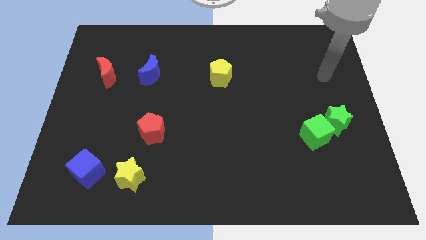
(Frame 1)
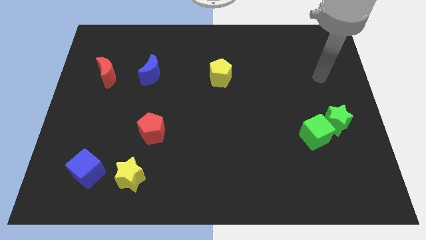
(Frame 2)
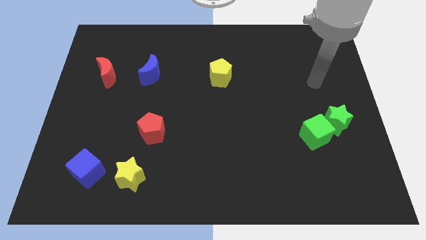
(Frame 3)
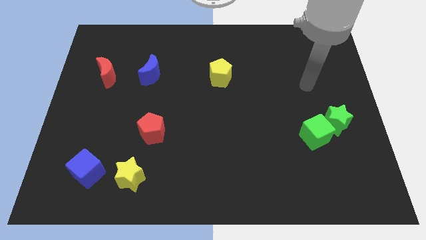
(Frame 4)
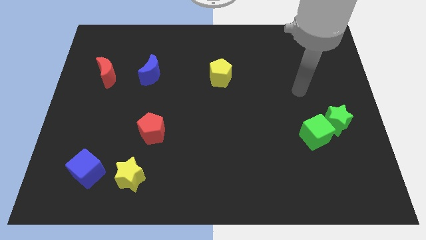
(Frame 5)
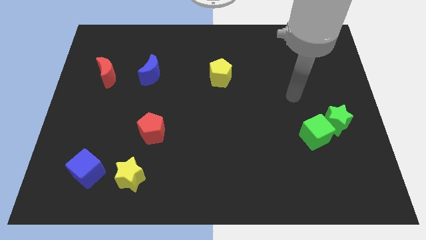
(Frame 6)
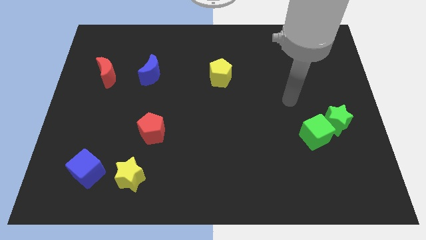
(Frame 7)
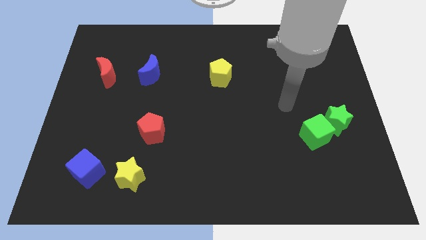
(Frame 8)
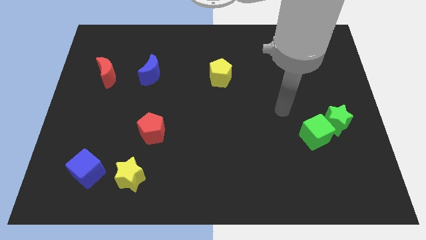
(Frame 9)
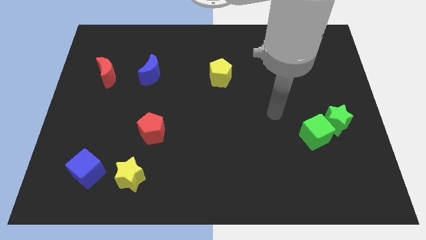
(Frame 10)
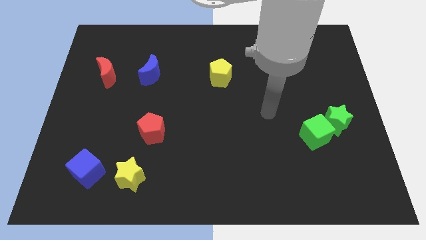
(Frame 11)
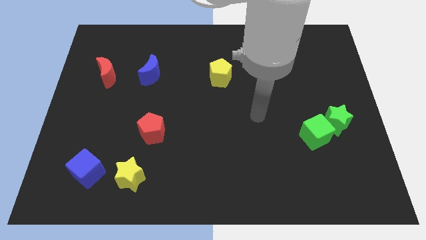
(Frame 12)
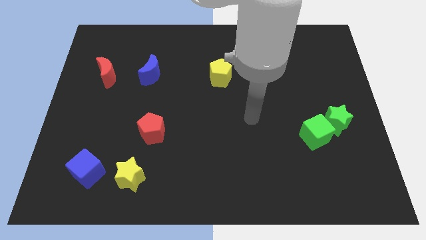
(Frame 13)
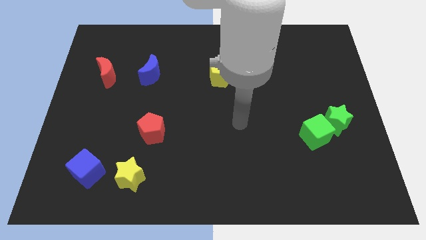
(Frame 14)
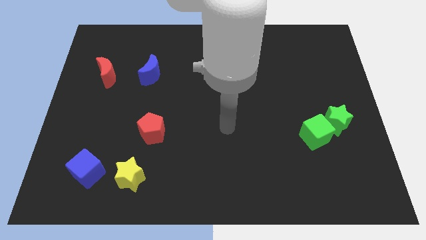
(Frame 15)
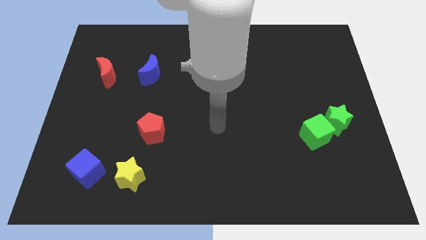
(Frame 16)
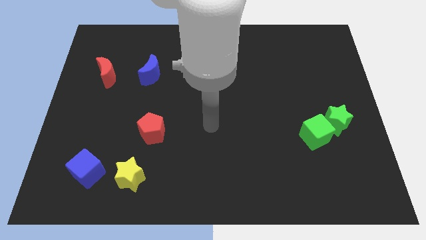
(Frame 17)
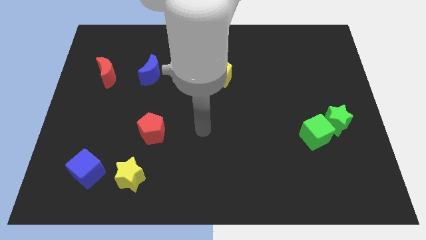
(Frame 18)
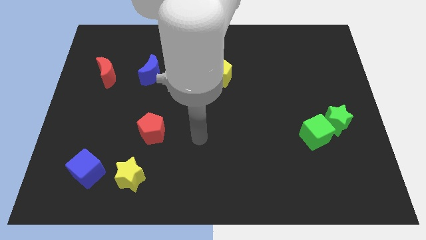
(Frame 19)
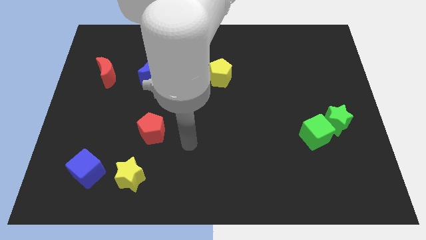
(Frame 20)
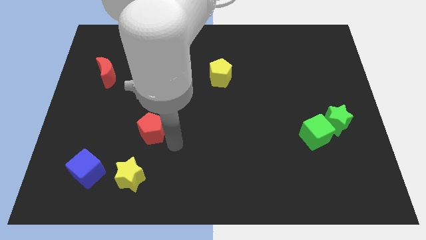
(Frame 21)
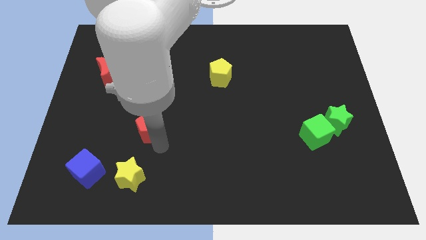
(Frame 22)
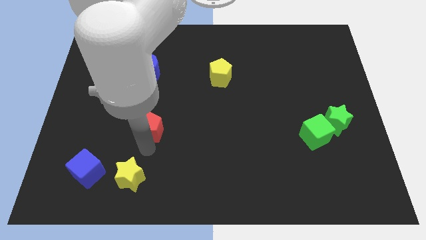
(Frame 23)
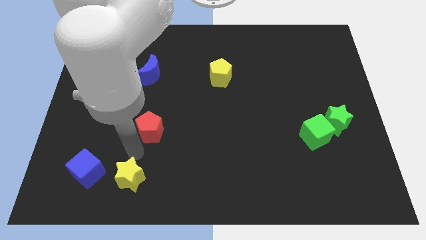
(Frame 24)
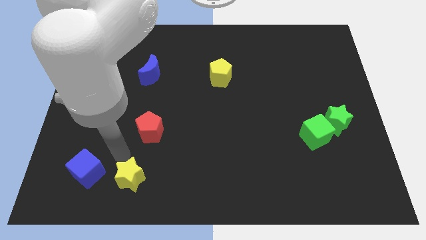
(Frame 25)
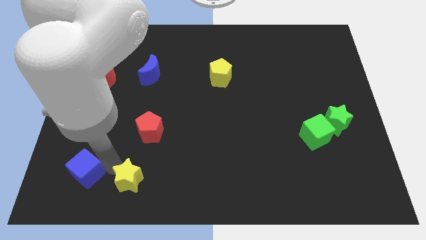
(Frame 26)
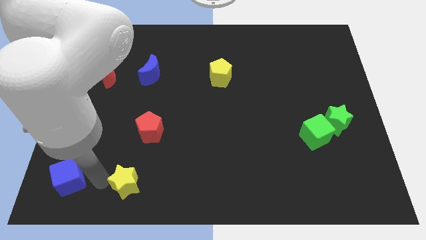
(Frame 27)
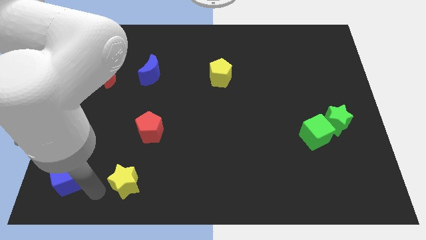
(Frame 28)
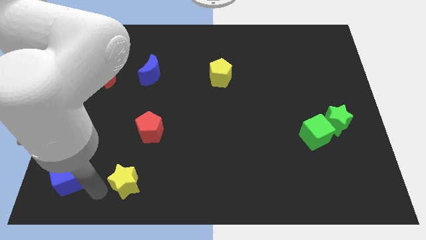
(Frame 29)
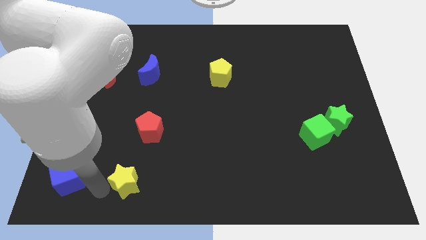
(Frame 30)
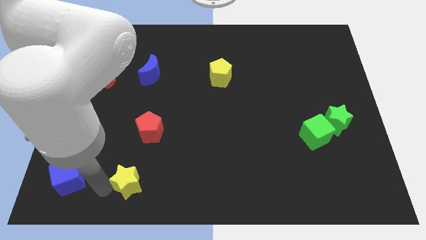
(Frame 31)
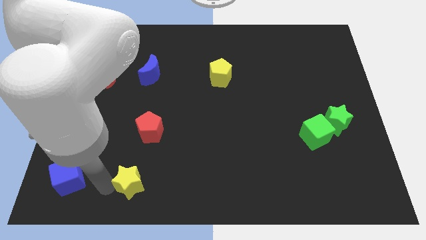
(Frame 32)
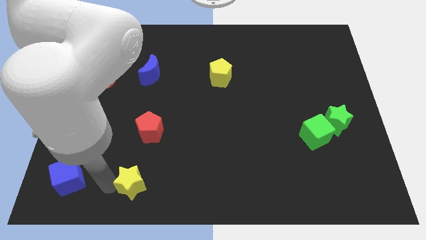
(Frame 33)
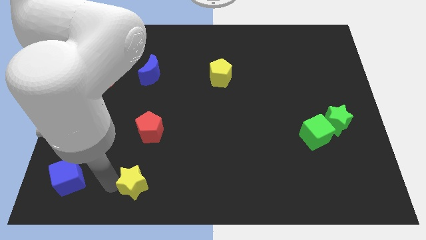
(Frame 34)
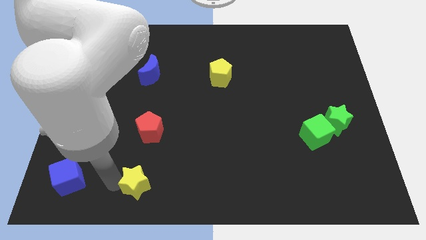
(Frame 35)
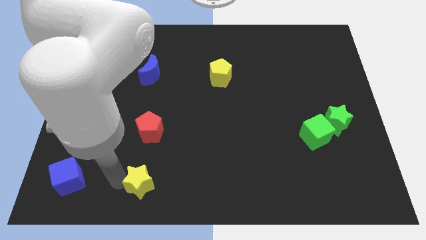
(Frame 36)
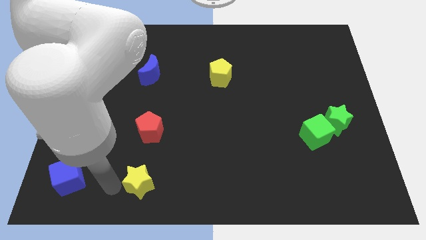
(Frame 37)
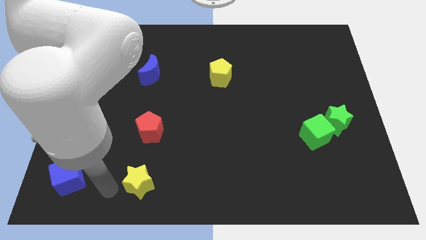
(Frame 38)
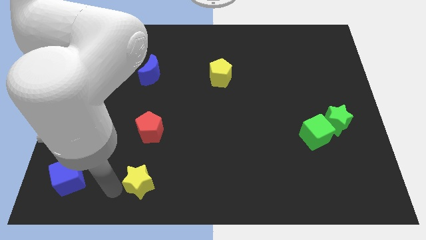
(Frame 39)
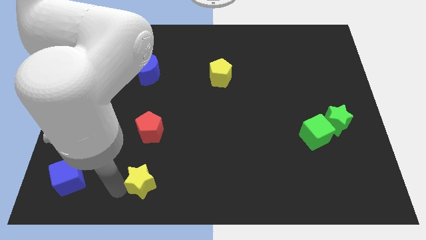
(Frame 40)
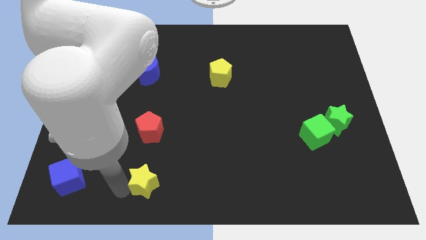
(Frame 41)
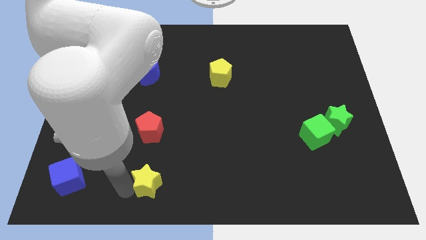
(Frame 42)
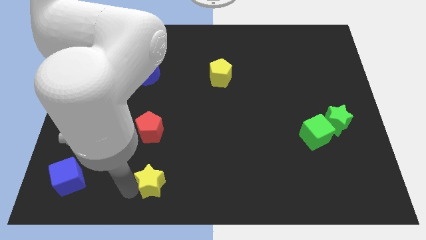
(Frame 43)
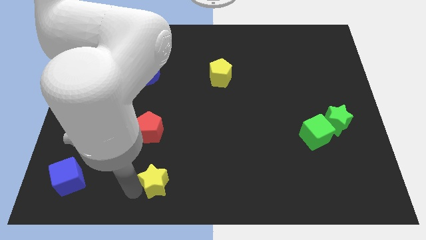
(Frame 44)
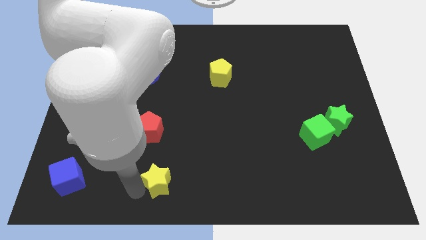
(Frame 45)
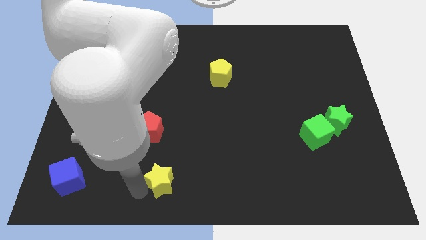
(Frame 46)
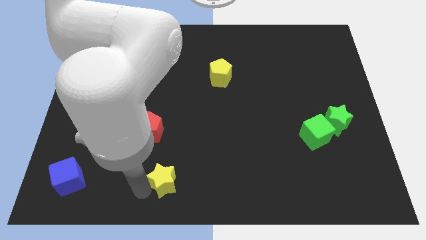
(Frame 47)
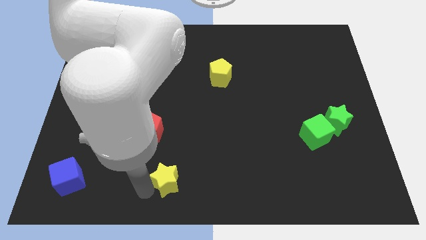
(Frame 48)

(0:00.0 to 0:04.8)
slightly slide the yellow star right

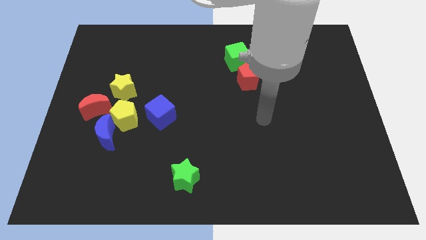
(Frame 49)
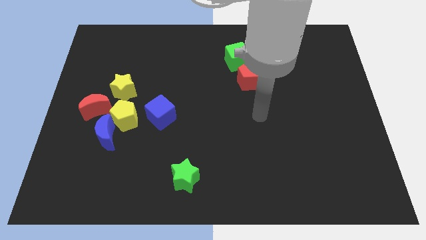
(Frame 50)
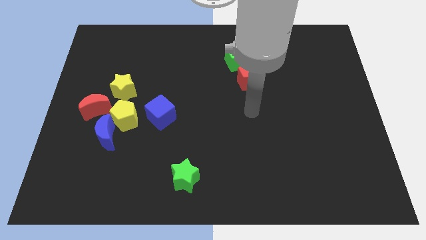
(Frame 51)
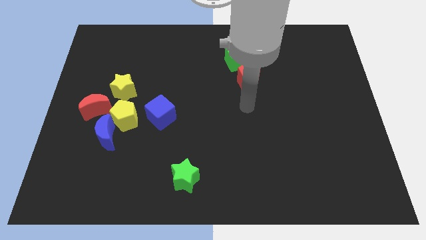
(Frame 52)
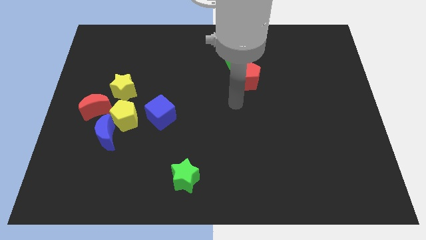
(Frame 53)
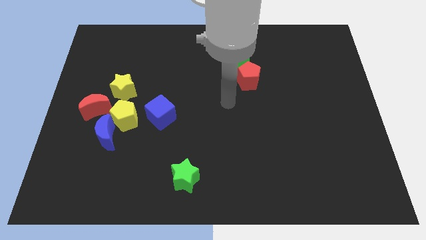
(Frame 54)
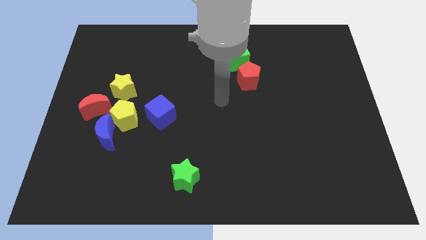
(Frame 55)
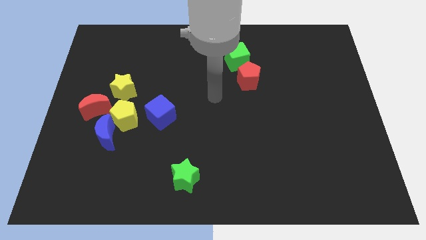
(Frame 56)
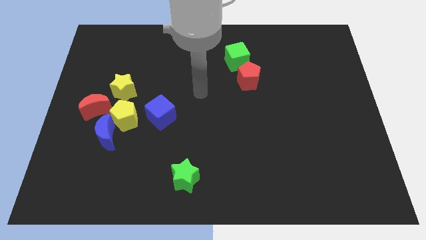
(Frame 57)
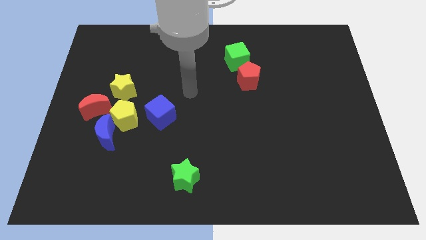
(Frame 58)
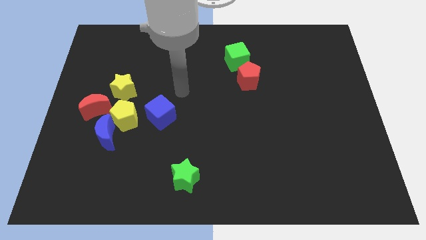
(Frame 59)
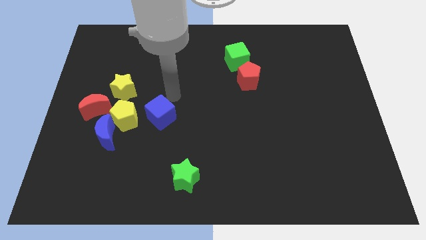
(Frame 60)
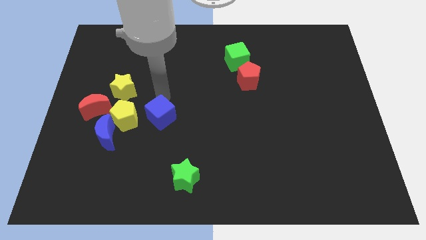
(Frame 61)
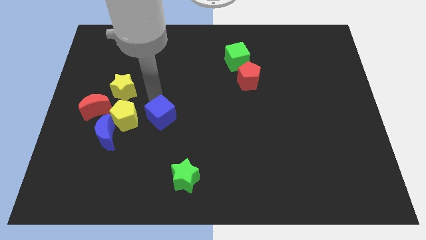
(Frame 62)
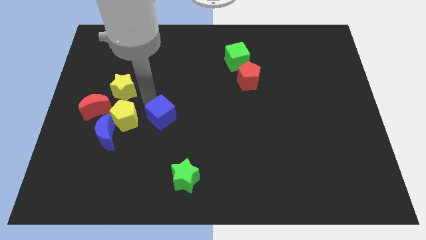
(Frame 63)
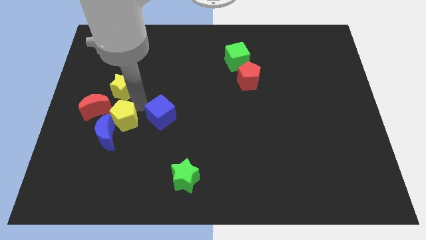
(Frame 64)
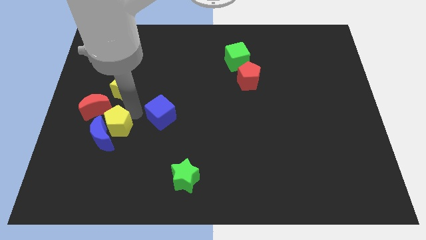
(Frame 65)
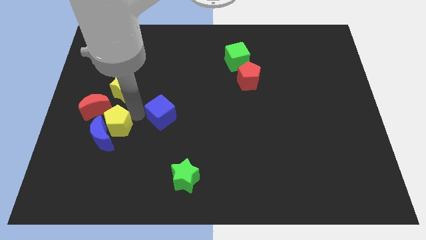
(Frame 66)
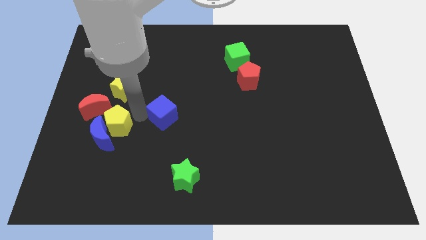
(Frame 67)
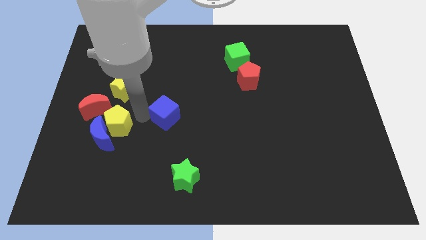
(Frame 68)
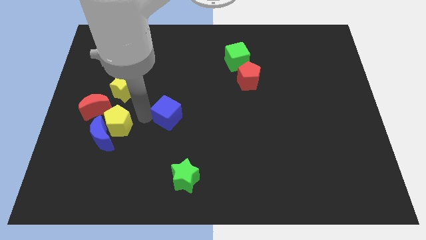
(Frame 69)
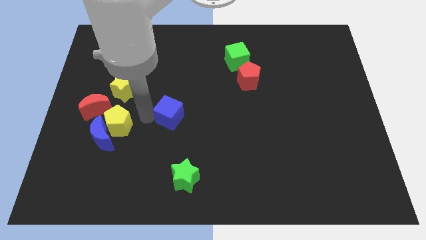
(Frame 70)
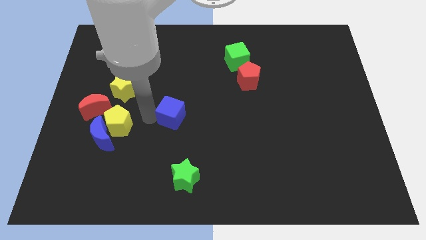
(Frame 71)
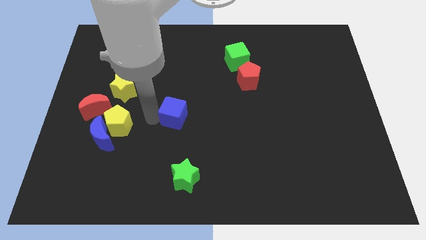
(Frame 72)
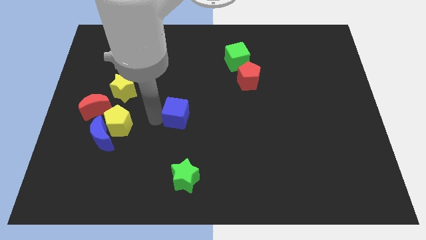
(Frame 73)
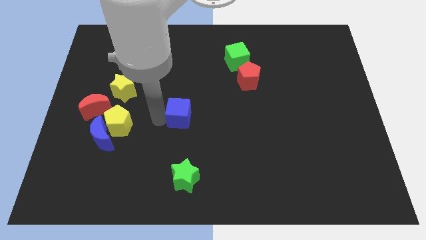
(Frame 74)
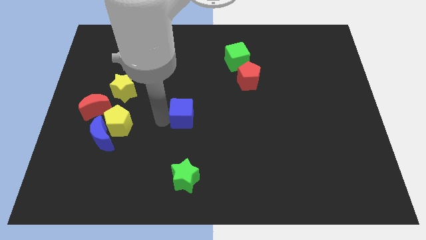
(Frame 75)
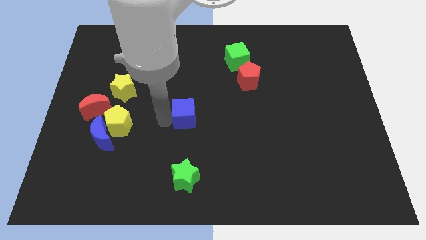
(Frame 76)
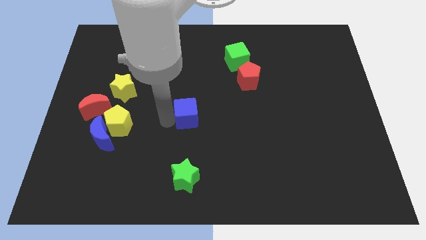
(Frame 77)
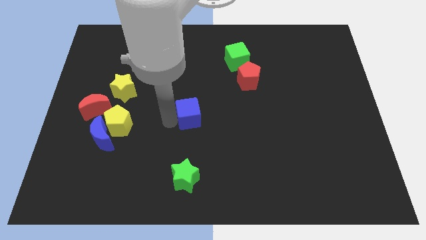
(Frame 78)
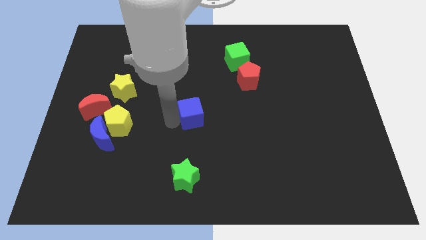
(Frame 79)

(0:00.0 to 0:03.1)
slightly slide the blue cube to the right

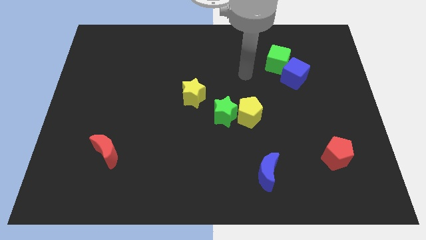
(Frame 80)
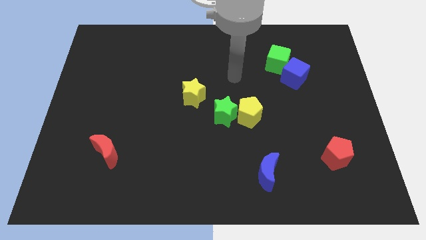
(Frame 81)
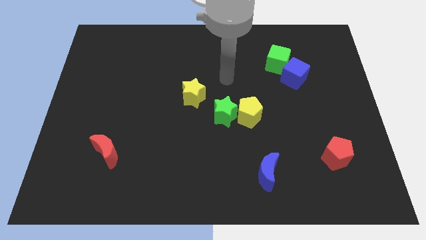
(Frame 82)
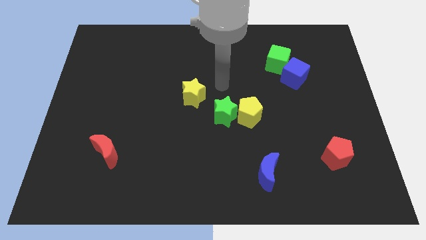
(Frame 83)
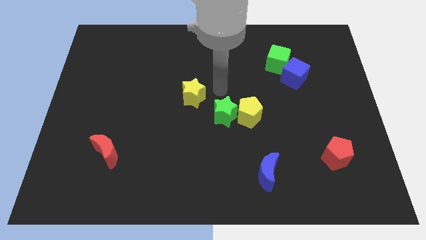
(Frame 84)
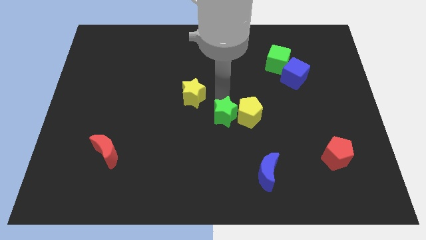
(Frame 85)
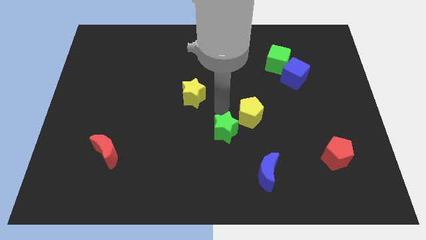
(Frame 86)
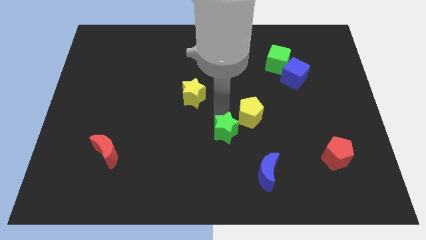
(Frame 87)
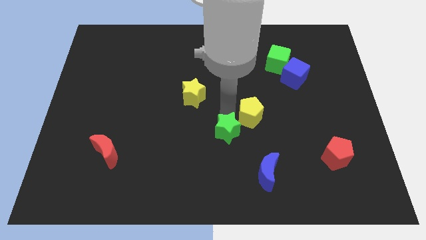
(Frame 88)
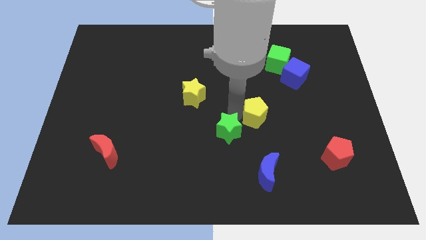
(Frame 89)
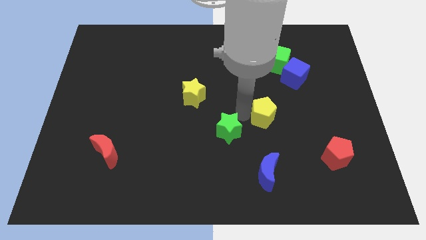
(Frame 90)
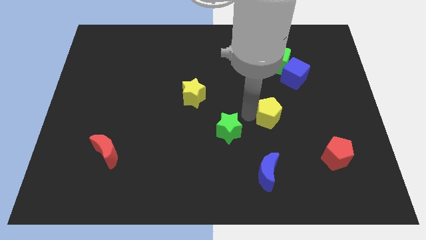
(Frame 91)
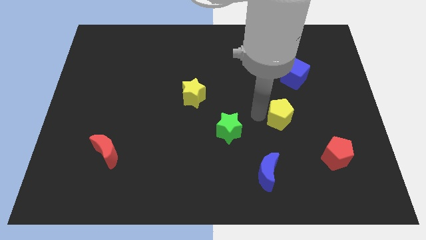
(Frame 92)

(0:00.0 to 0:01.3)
move the yellow pentagon a little right
